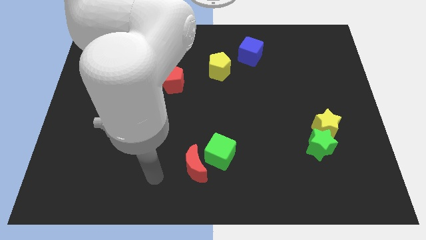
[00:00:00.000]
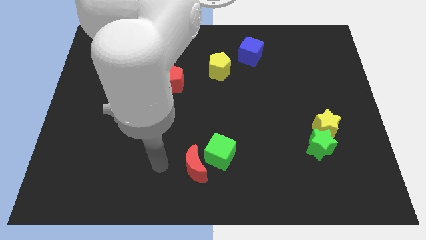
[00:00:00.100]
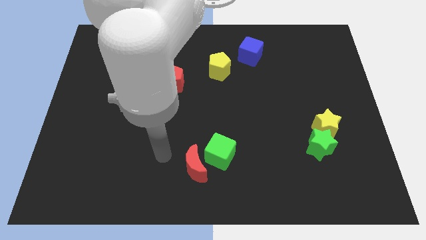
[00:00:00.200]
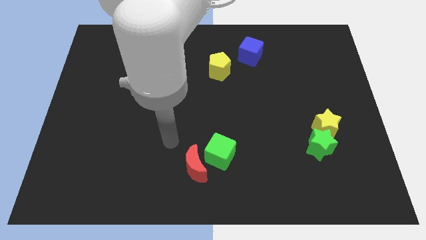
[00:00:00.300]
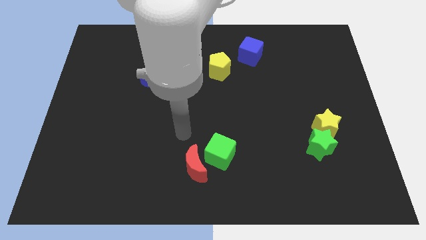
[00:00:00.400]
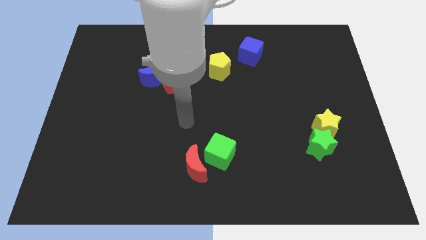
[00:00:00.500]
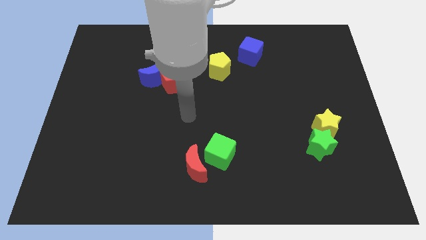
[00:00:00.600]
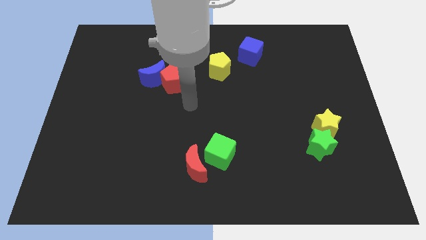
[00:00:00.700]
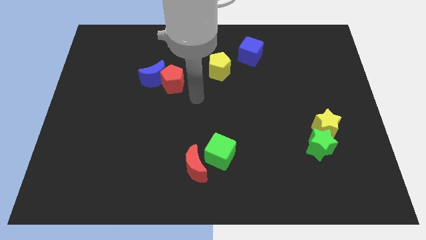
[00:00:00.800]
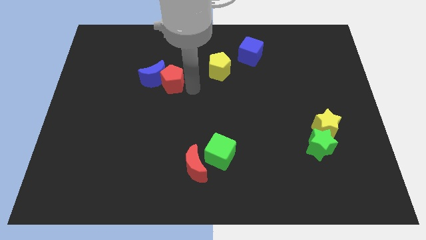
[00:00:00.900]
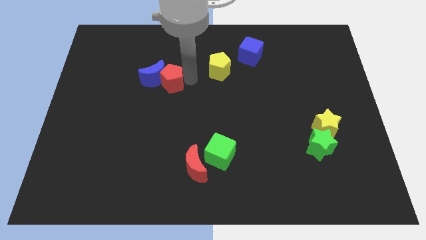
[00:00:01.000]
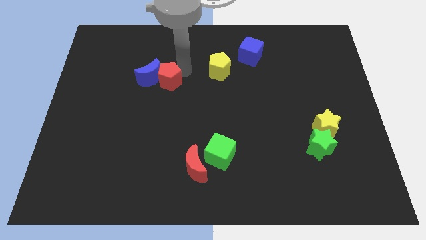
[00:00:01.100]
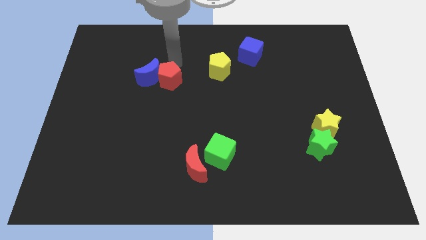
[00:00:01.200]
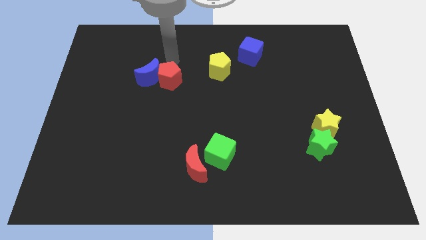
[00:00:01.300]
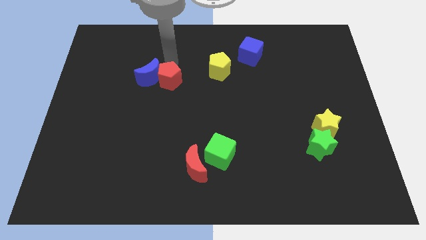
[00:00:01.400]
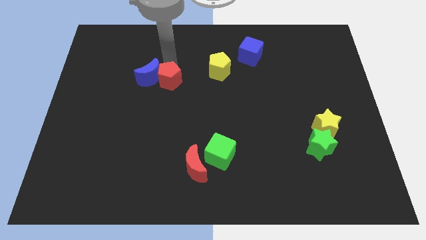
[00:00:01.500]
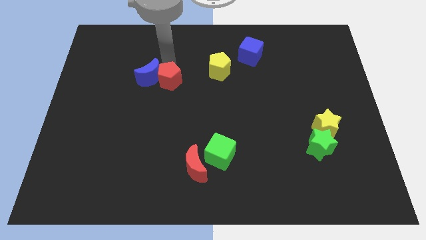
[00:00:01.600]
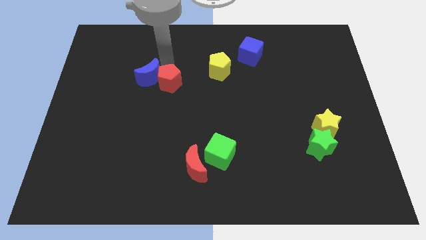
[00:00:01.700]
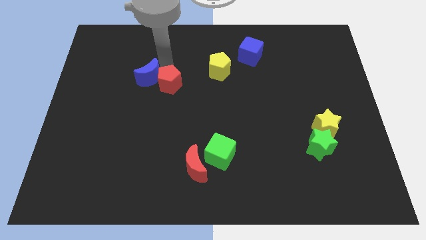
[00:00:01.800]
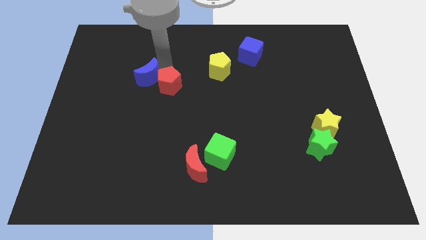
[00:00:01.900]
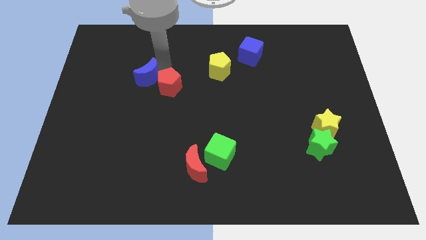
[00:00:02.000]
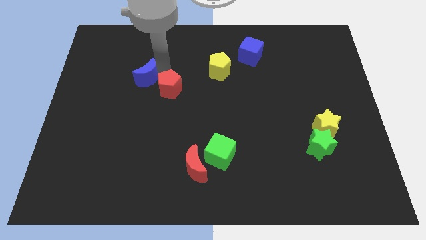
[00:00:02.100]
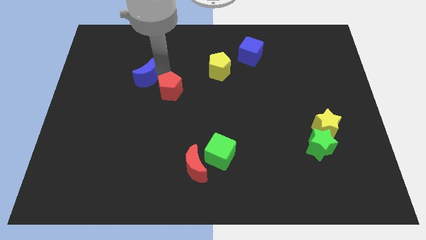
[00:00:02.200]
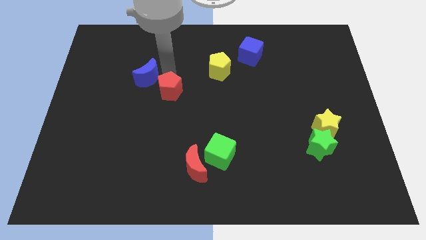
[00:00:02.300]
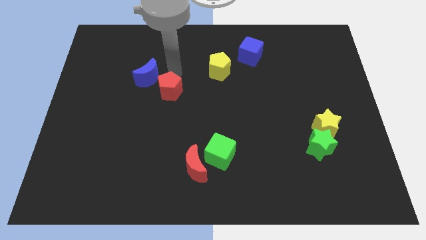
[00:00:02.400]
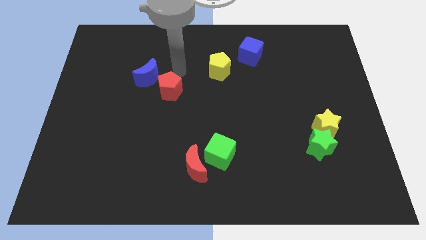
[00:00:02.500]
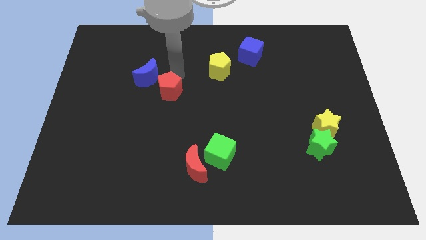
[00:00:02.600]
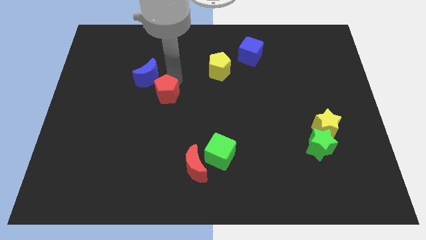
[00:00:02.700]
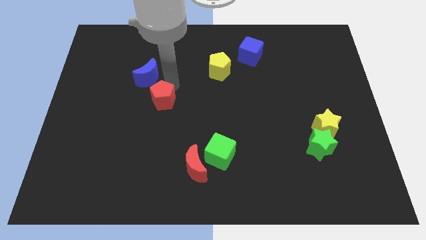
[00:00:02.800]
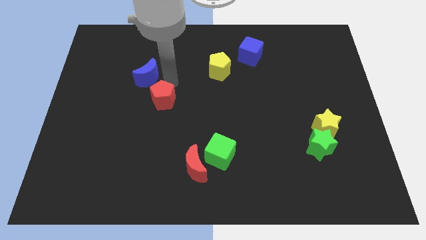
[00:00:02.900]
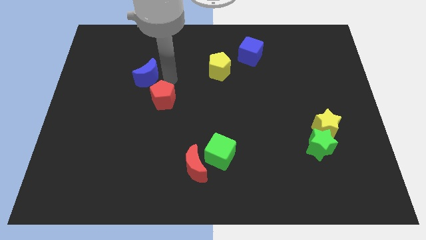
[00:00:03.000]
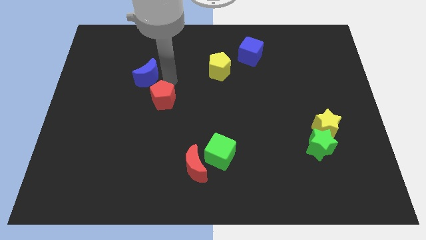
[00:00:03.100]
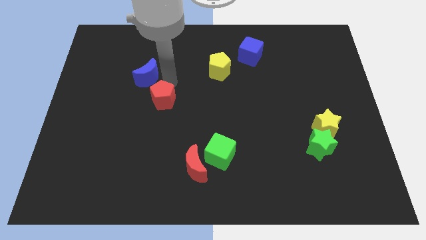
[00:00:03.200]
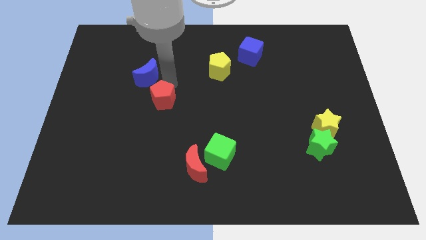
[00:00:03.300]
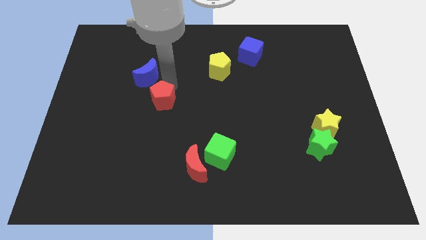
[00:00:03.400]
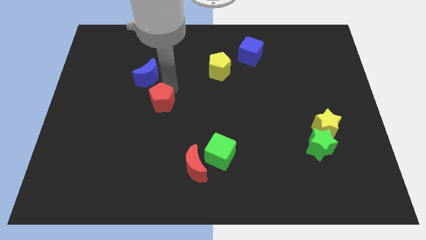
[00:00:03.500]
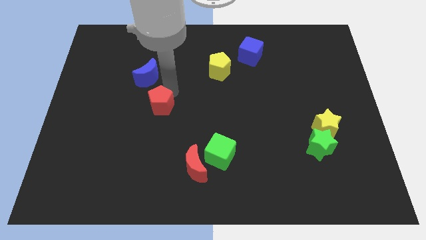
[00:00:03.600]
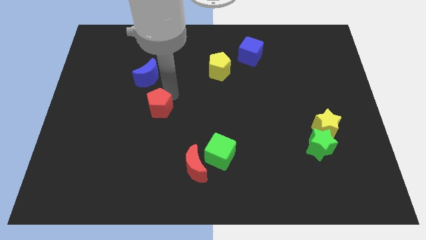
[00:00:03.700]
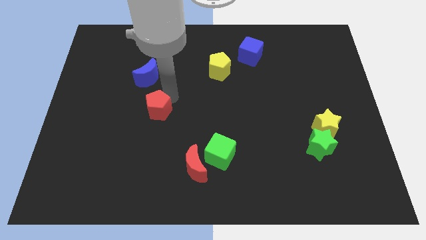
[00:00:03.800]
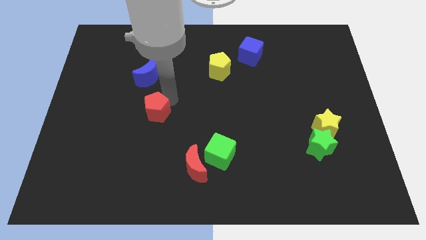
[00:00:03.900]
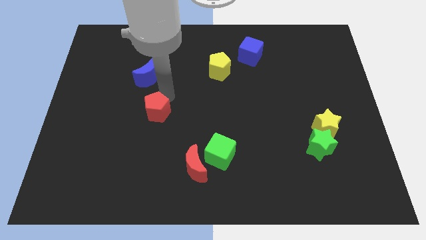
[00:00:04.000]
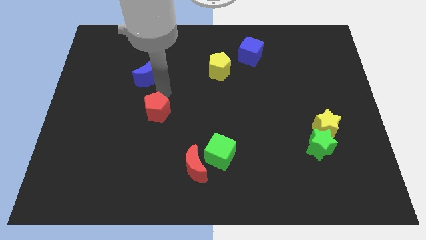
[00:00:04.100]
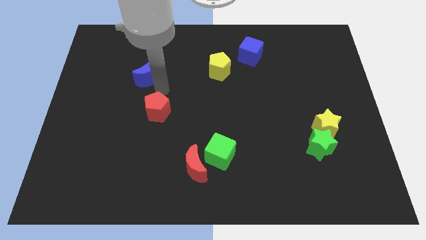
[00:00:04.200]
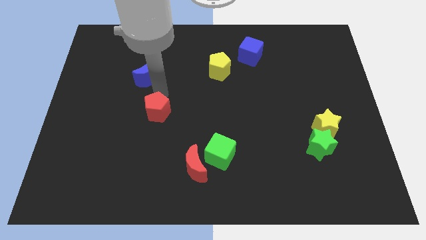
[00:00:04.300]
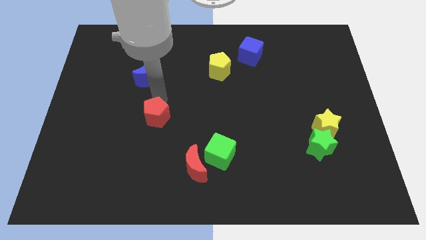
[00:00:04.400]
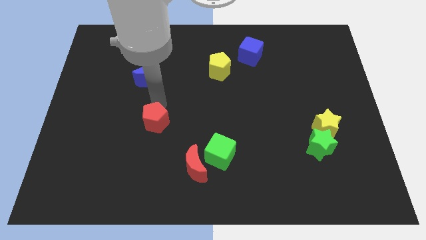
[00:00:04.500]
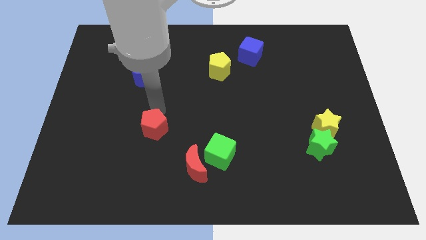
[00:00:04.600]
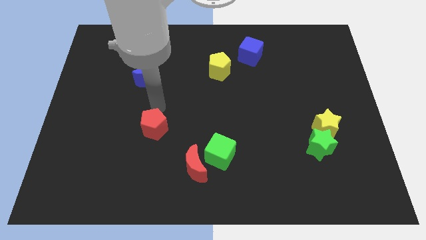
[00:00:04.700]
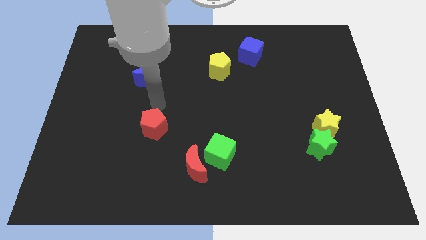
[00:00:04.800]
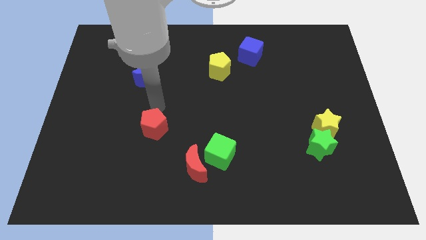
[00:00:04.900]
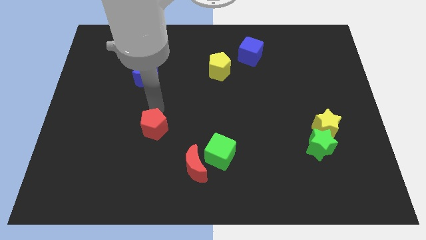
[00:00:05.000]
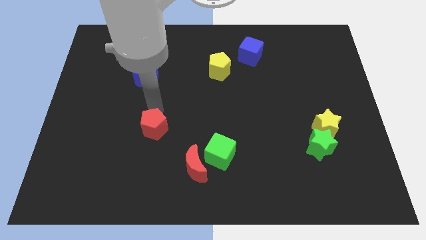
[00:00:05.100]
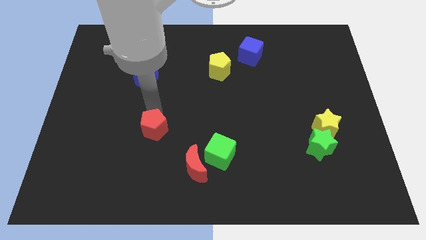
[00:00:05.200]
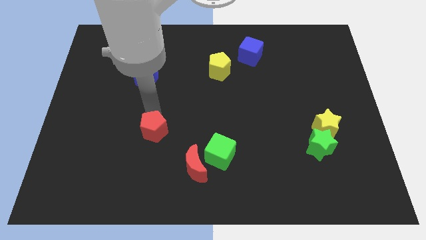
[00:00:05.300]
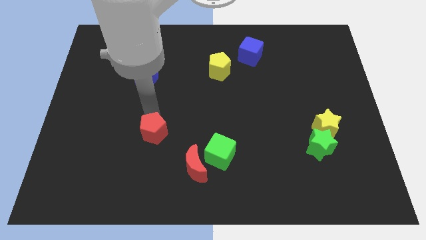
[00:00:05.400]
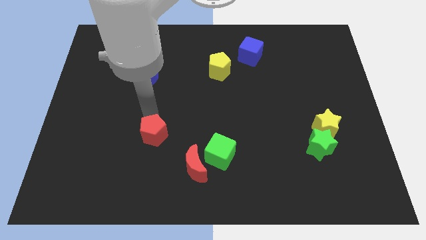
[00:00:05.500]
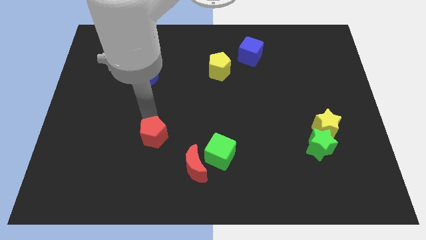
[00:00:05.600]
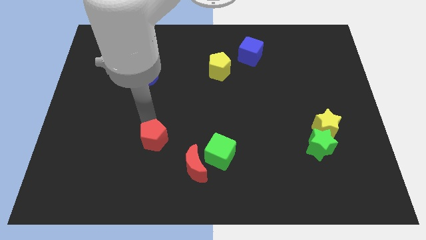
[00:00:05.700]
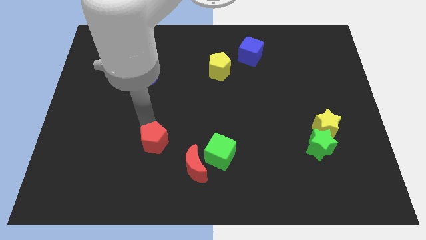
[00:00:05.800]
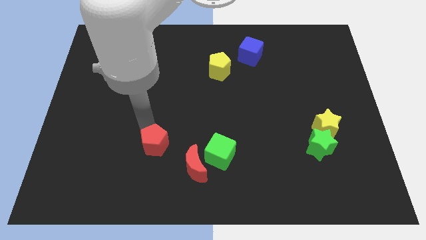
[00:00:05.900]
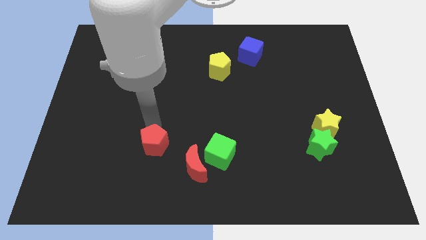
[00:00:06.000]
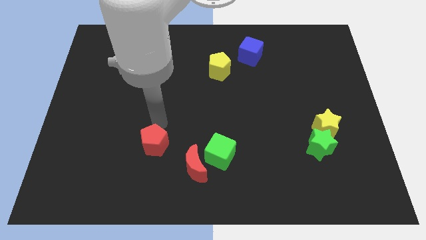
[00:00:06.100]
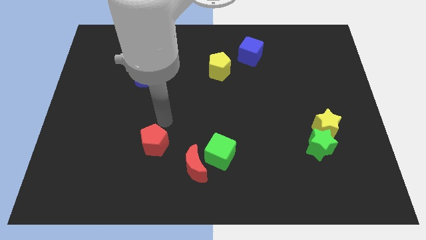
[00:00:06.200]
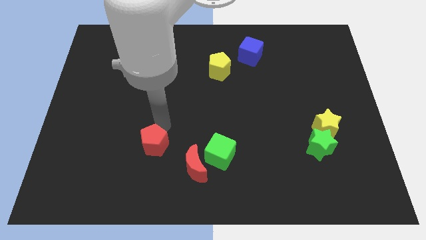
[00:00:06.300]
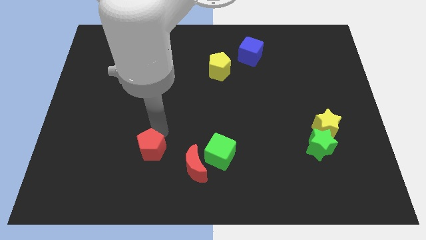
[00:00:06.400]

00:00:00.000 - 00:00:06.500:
move the red pentagon just left of the red moon
